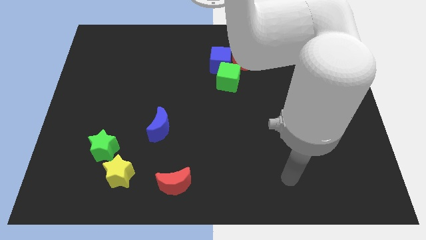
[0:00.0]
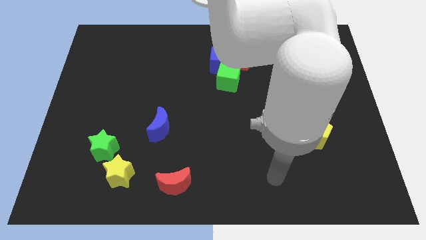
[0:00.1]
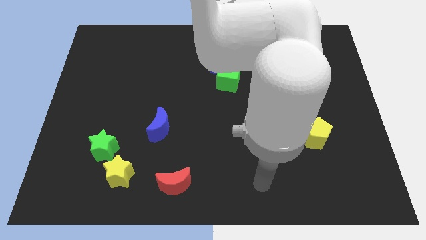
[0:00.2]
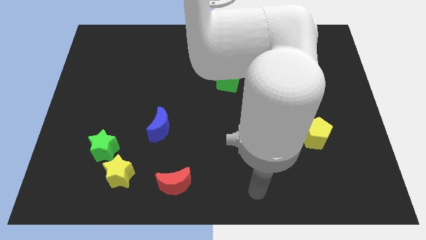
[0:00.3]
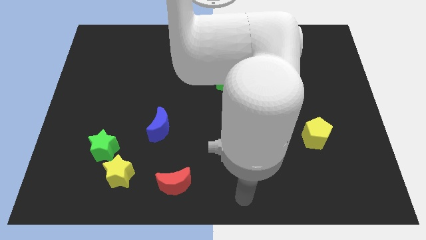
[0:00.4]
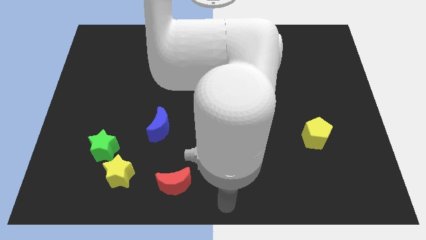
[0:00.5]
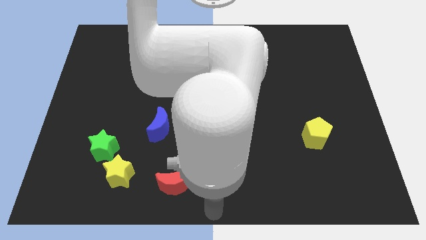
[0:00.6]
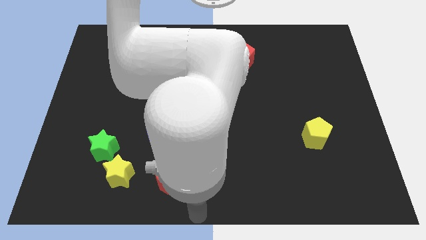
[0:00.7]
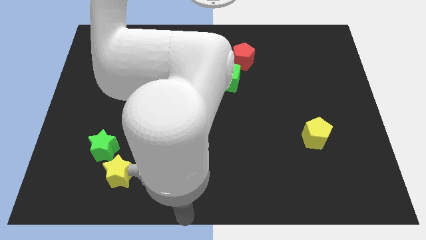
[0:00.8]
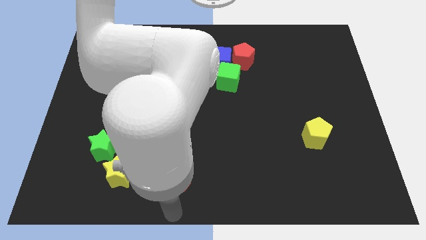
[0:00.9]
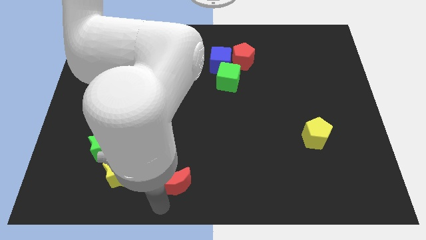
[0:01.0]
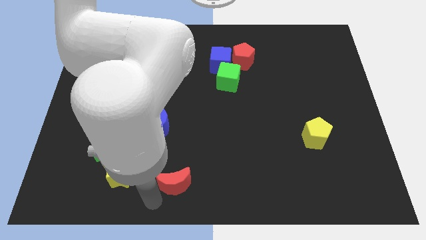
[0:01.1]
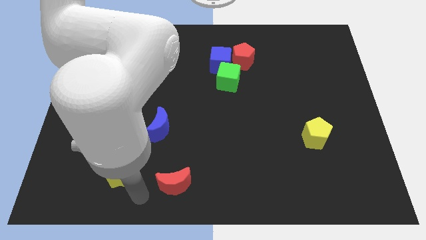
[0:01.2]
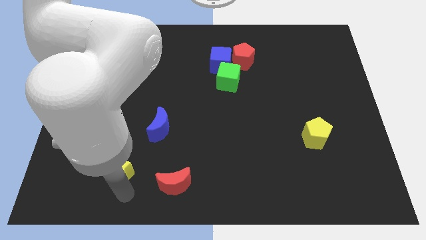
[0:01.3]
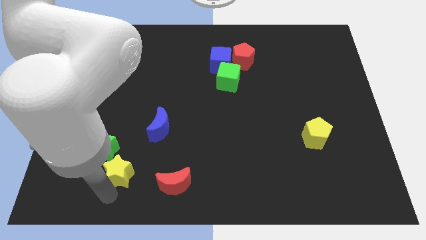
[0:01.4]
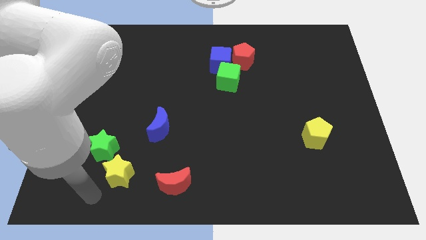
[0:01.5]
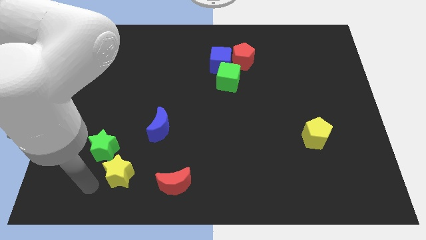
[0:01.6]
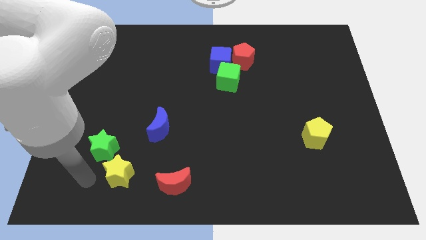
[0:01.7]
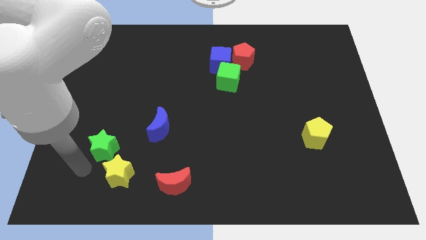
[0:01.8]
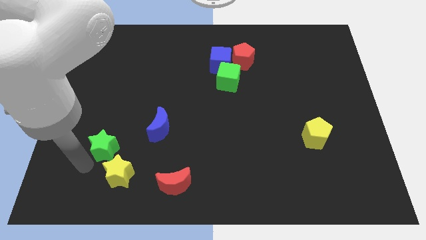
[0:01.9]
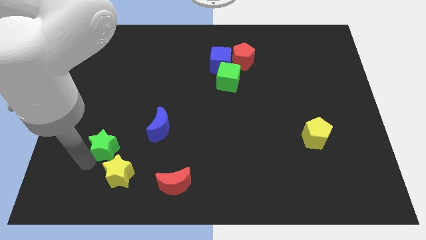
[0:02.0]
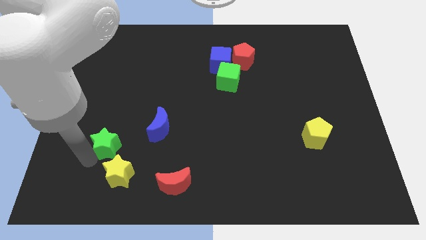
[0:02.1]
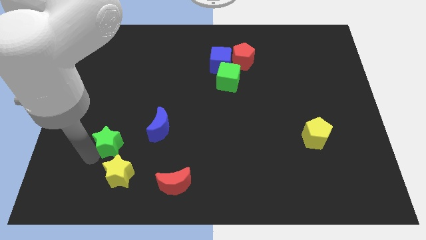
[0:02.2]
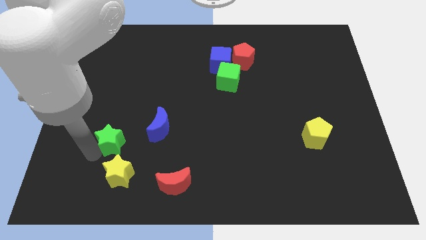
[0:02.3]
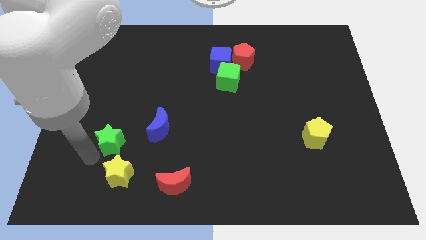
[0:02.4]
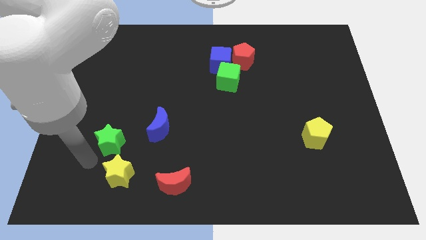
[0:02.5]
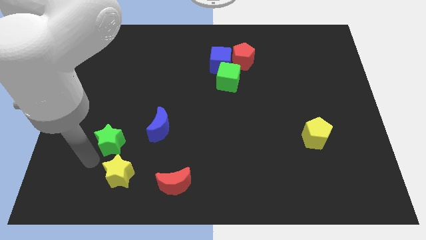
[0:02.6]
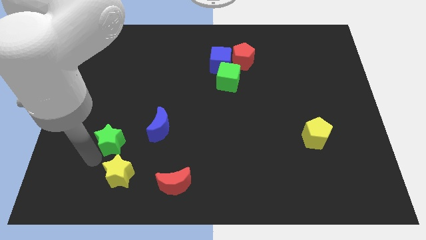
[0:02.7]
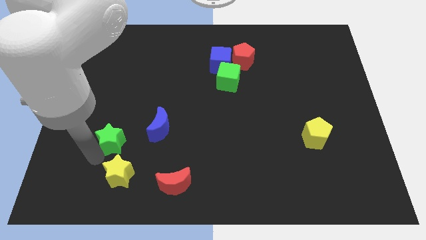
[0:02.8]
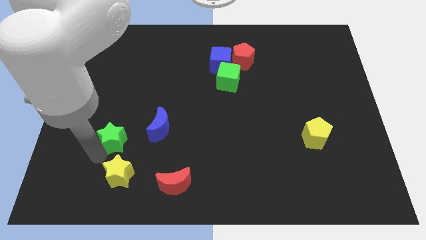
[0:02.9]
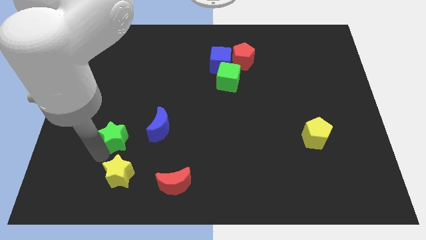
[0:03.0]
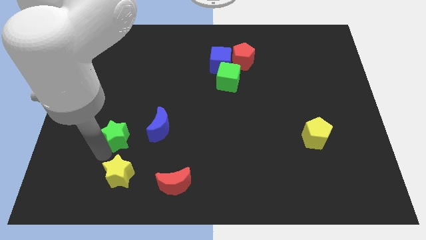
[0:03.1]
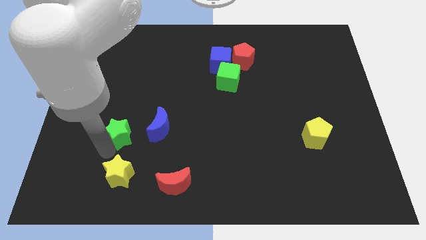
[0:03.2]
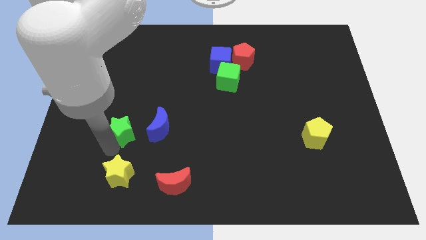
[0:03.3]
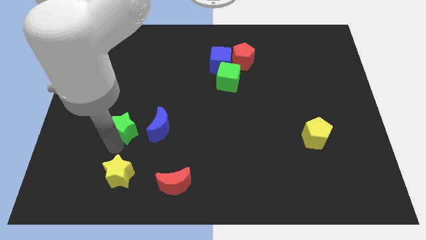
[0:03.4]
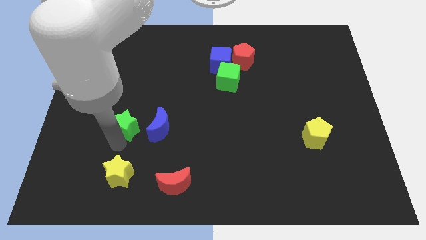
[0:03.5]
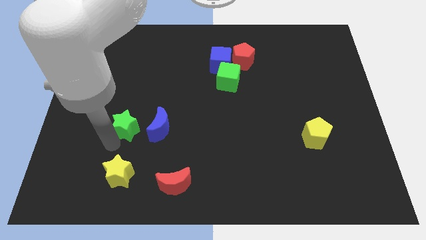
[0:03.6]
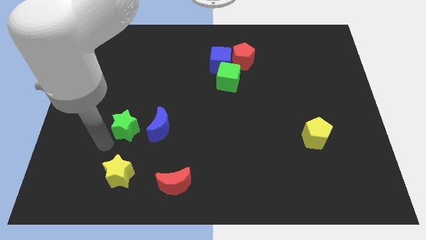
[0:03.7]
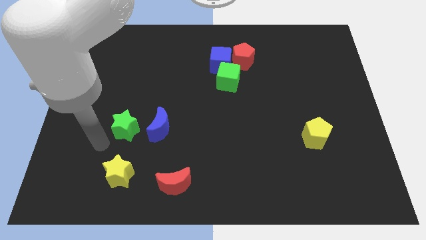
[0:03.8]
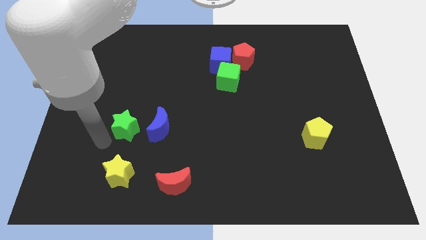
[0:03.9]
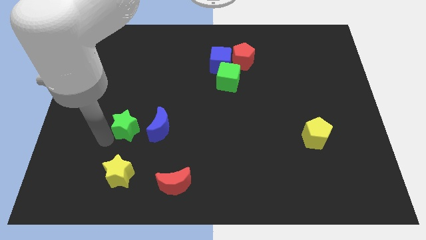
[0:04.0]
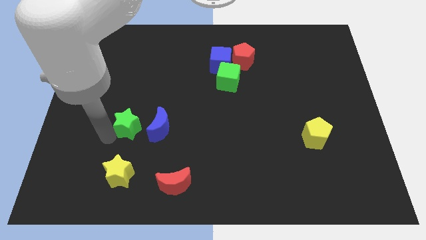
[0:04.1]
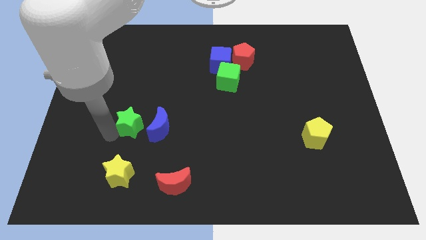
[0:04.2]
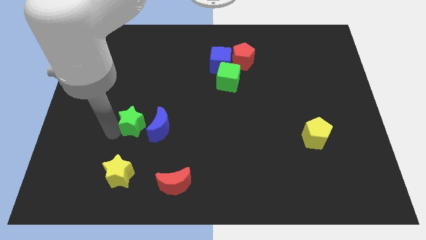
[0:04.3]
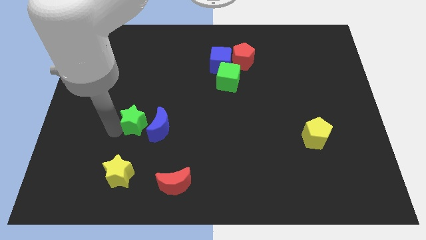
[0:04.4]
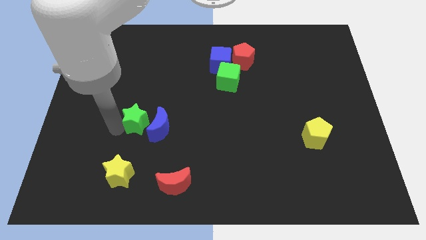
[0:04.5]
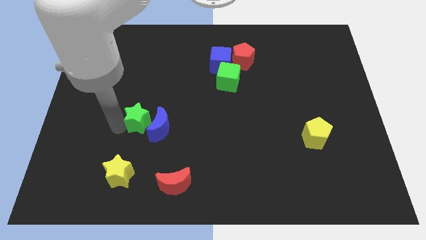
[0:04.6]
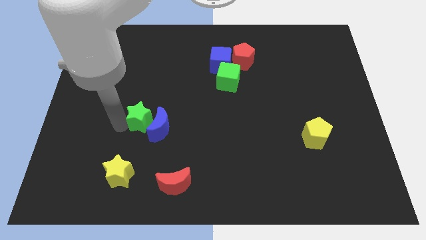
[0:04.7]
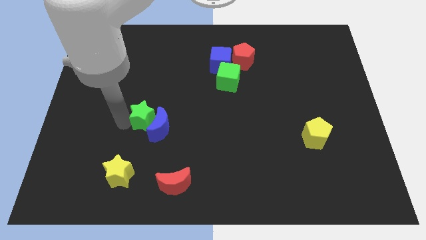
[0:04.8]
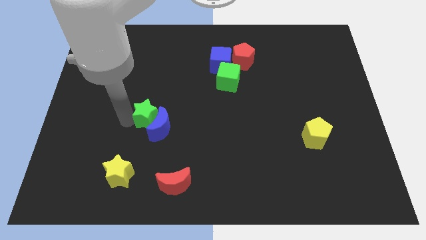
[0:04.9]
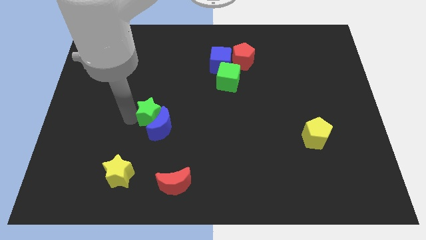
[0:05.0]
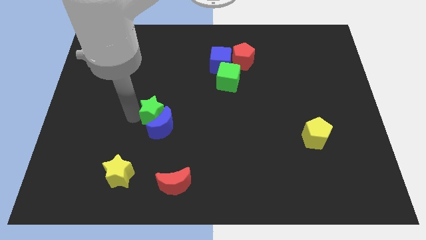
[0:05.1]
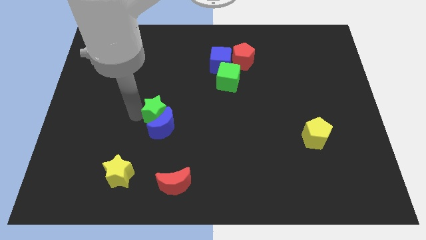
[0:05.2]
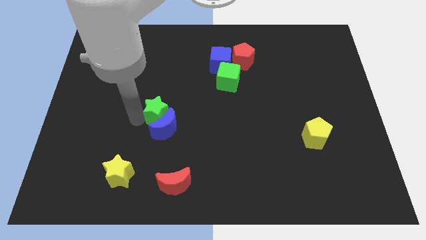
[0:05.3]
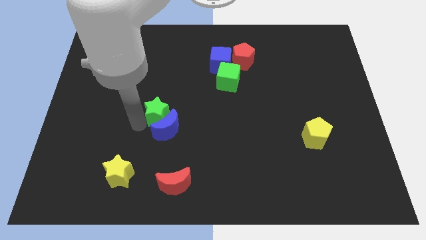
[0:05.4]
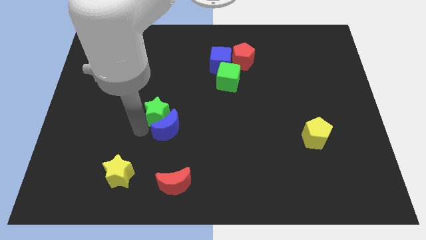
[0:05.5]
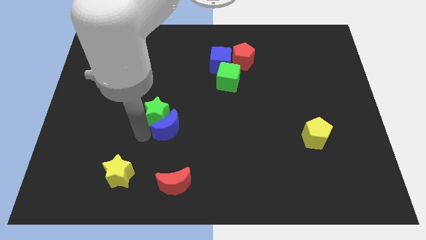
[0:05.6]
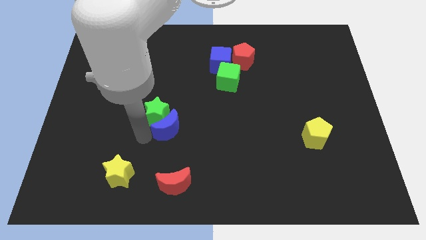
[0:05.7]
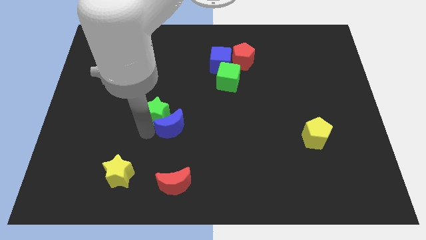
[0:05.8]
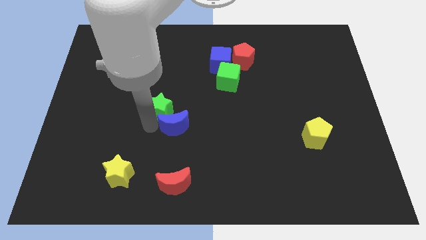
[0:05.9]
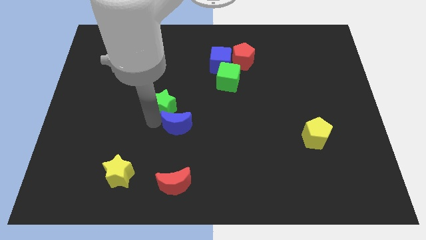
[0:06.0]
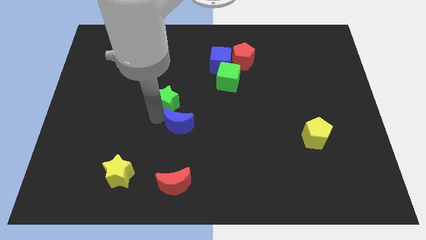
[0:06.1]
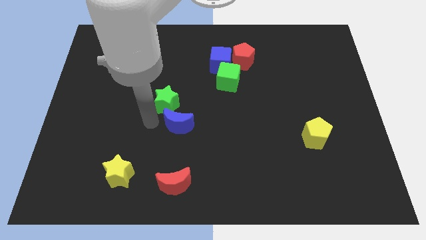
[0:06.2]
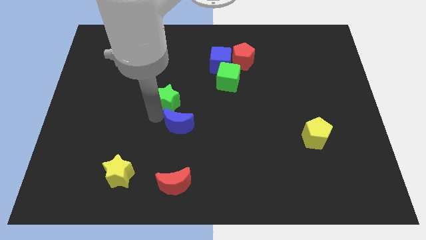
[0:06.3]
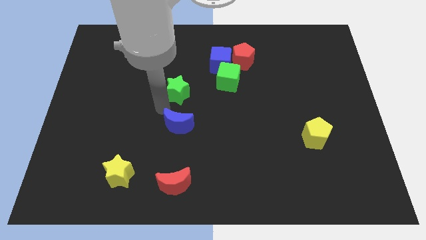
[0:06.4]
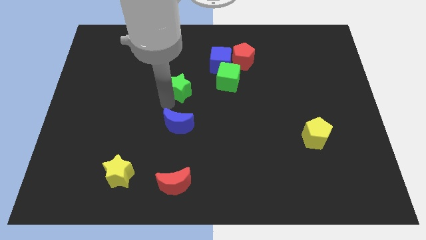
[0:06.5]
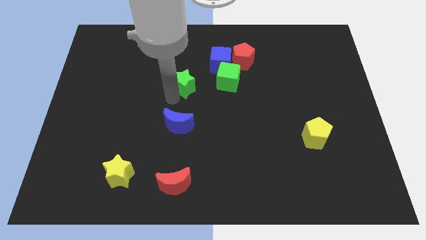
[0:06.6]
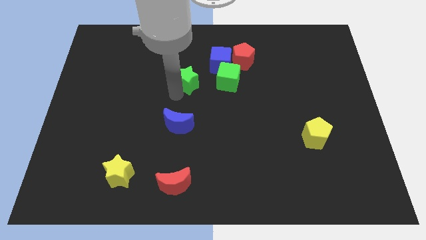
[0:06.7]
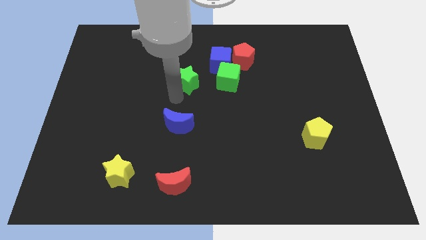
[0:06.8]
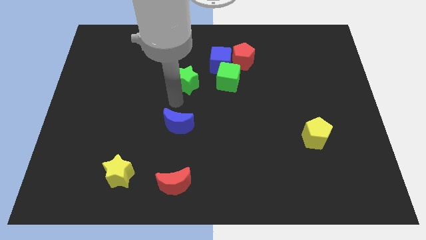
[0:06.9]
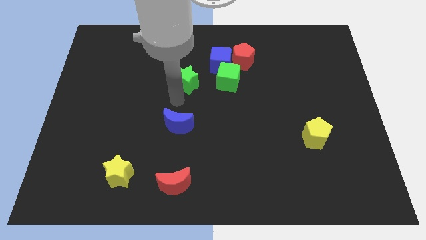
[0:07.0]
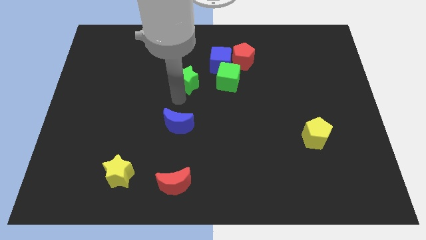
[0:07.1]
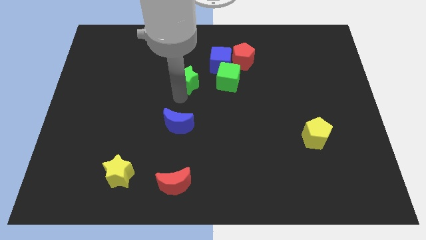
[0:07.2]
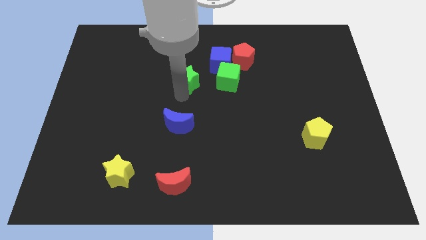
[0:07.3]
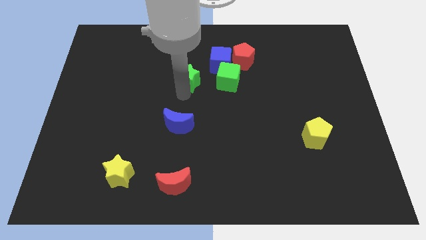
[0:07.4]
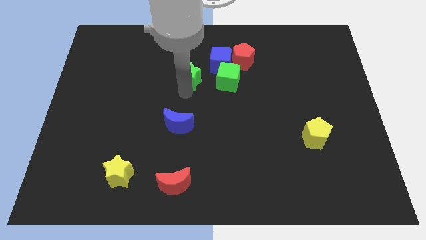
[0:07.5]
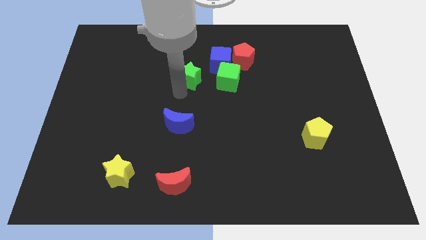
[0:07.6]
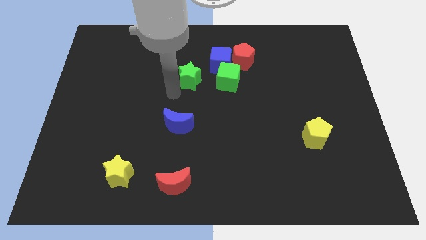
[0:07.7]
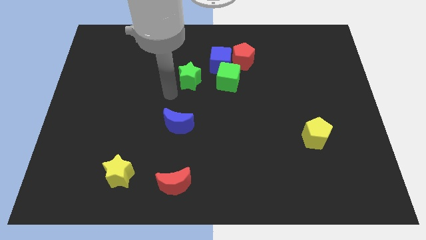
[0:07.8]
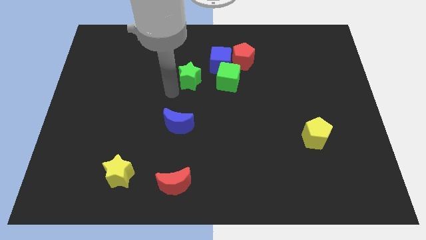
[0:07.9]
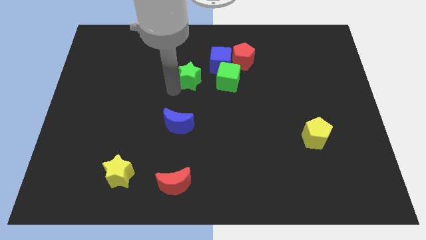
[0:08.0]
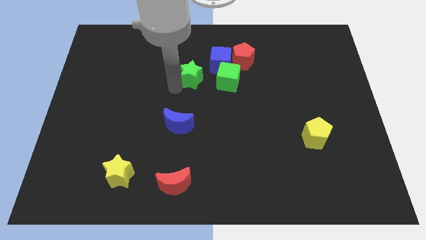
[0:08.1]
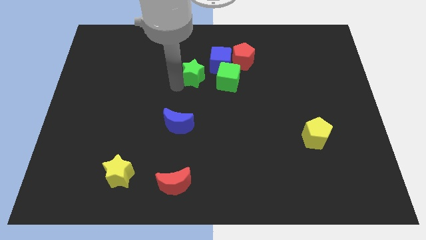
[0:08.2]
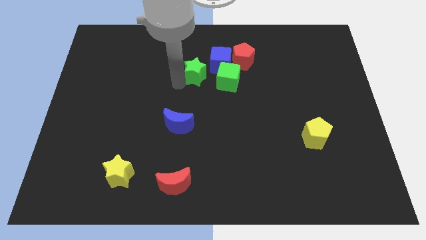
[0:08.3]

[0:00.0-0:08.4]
put the green star to the top left of the green cube
